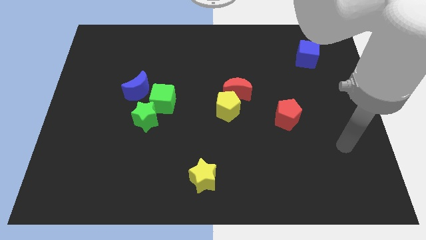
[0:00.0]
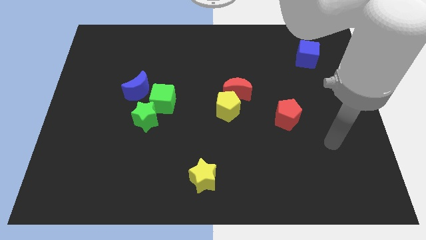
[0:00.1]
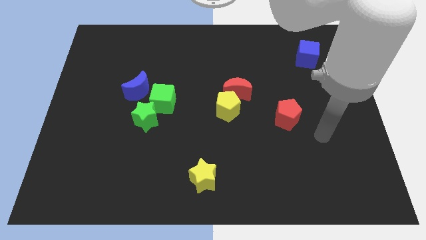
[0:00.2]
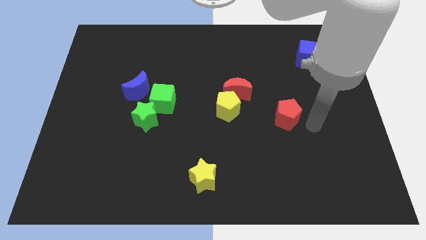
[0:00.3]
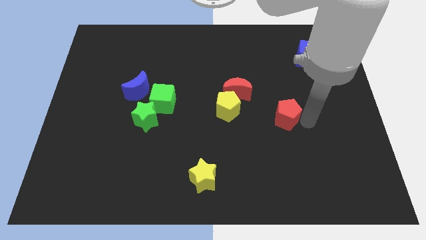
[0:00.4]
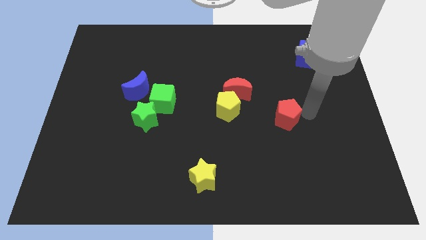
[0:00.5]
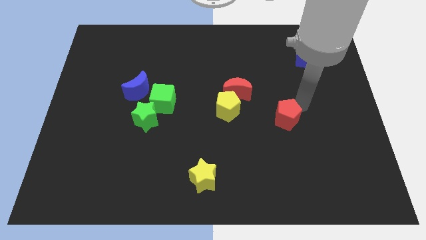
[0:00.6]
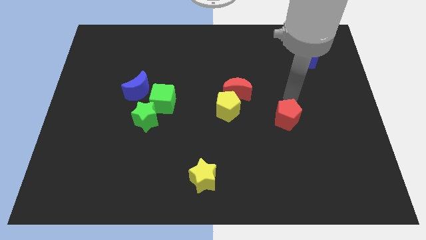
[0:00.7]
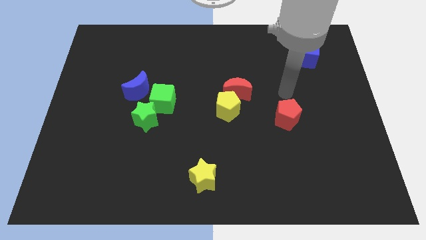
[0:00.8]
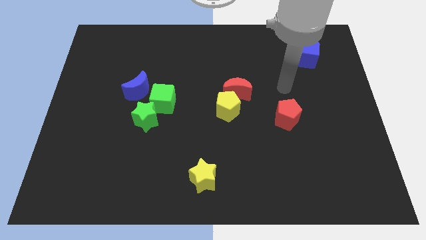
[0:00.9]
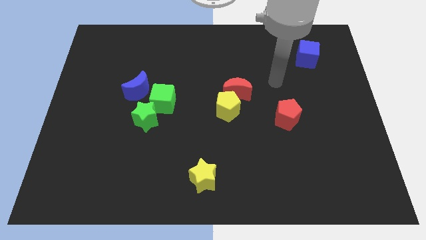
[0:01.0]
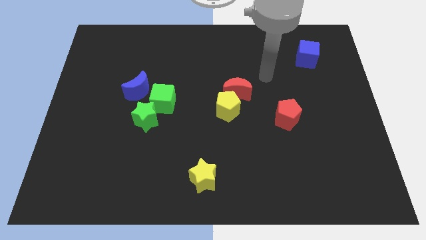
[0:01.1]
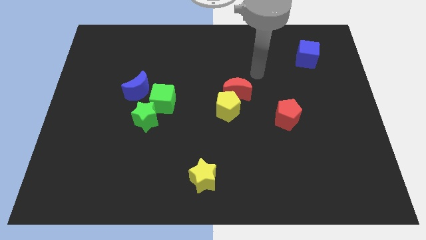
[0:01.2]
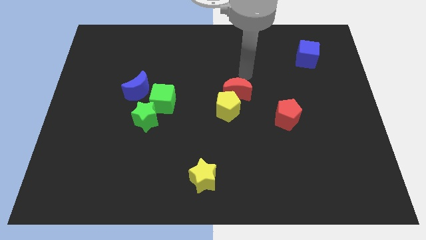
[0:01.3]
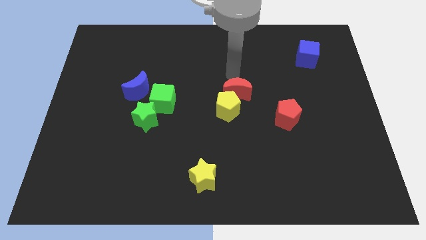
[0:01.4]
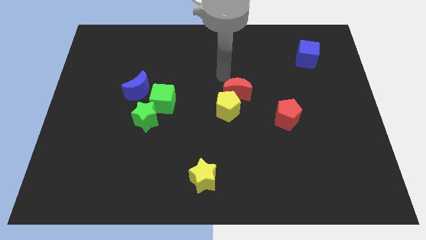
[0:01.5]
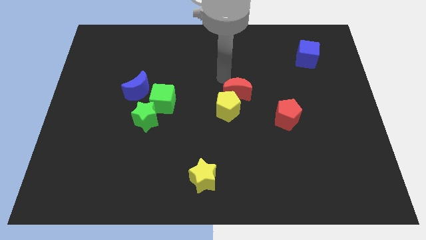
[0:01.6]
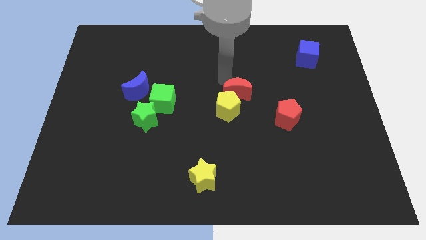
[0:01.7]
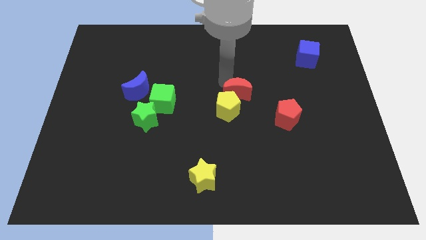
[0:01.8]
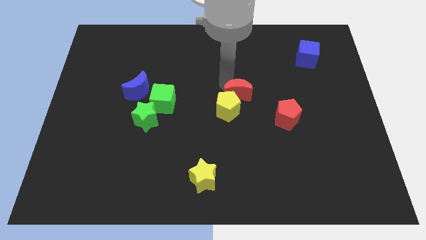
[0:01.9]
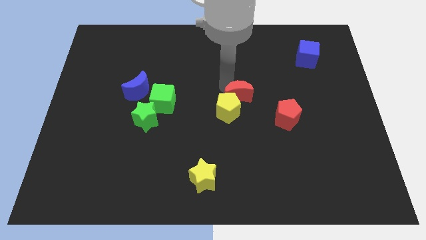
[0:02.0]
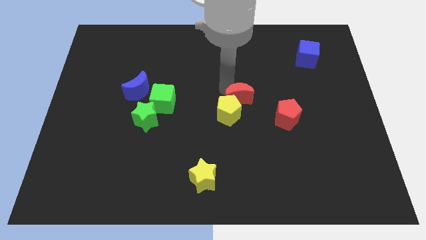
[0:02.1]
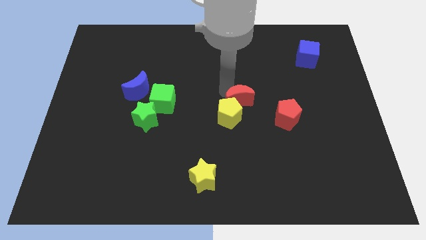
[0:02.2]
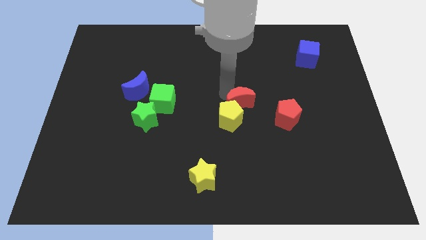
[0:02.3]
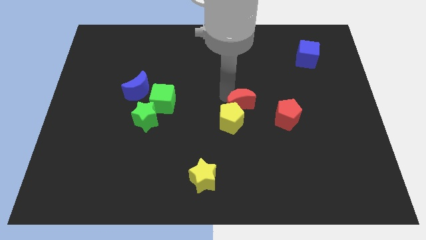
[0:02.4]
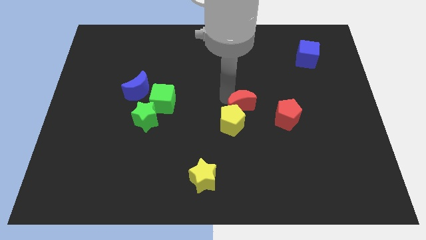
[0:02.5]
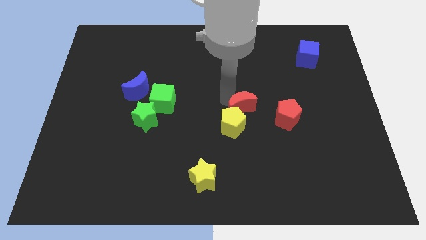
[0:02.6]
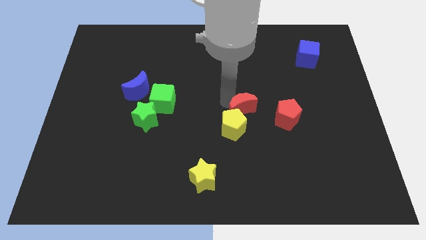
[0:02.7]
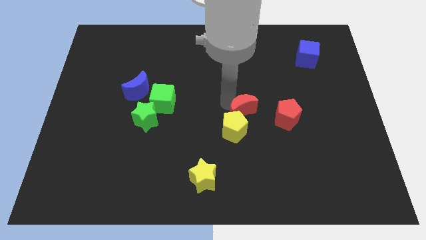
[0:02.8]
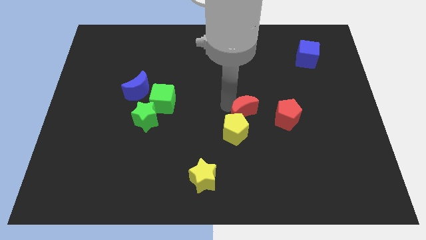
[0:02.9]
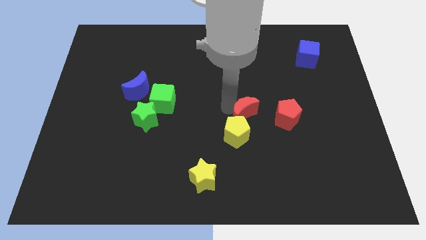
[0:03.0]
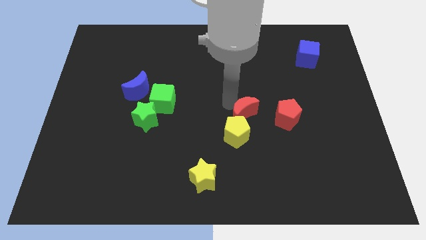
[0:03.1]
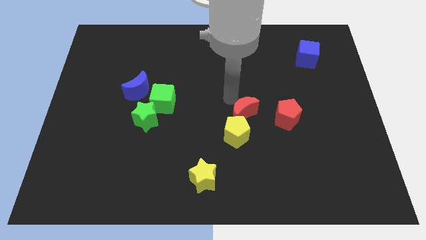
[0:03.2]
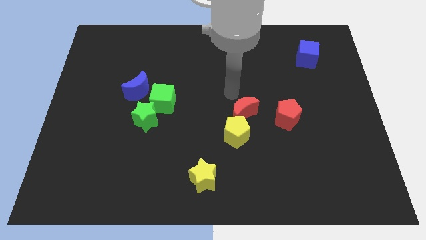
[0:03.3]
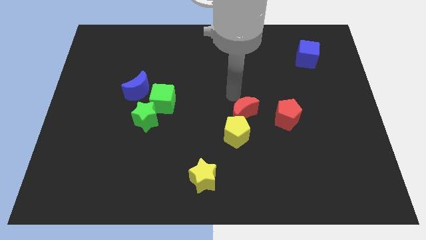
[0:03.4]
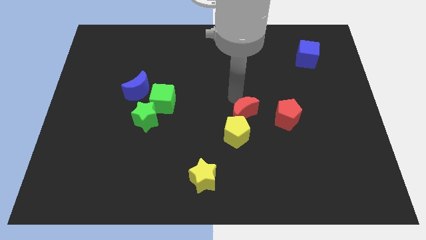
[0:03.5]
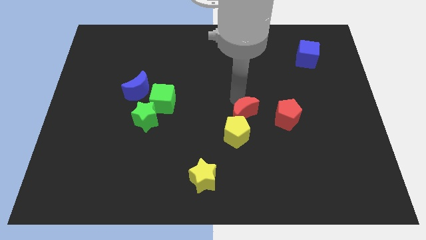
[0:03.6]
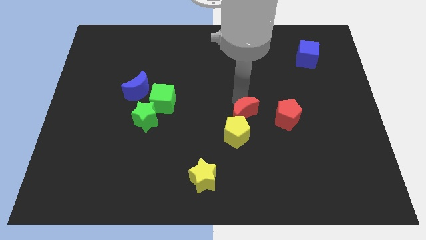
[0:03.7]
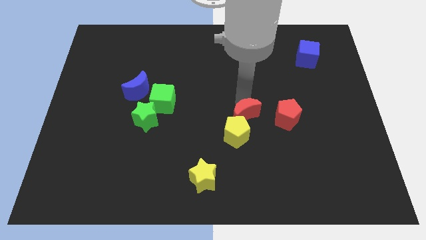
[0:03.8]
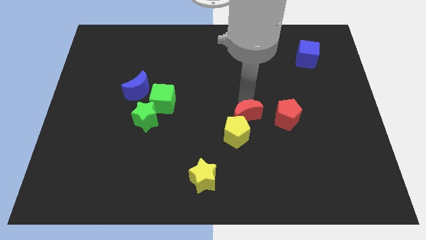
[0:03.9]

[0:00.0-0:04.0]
push the red moon a little bit downwards

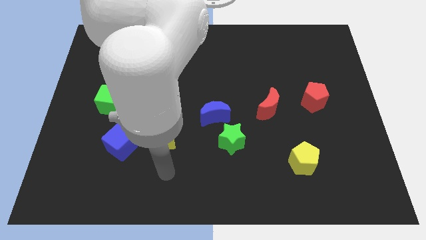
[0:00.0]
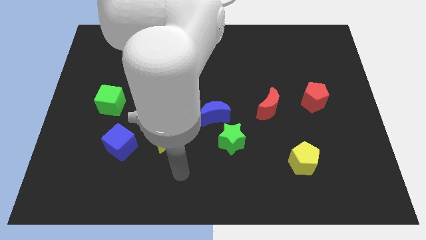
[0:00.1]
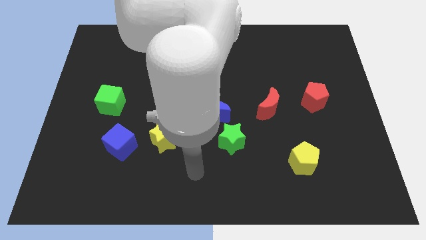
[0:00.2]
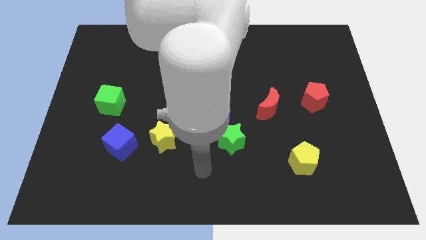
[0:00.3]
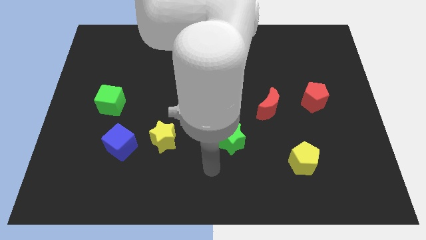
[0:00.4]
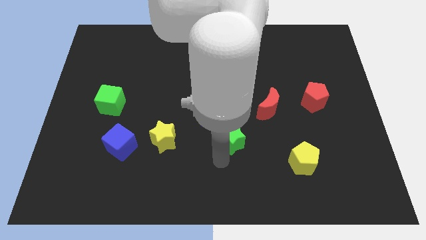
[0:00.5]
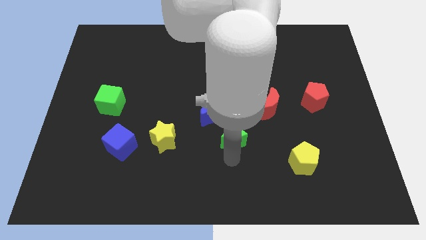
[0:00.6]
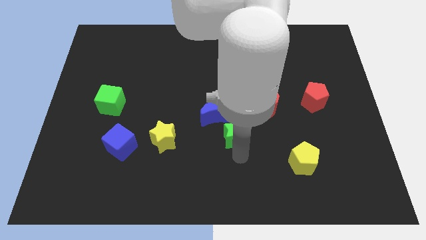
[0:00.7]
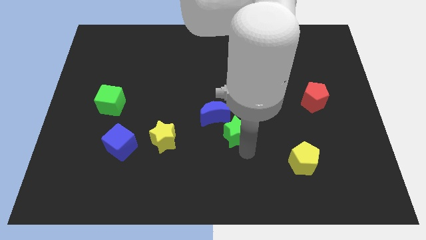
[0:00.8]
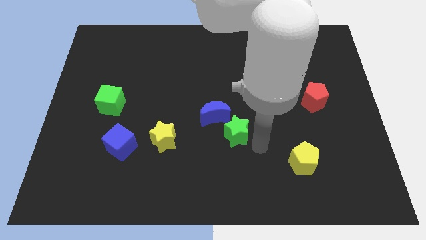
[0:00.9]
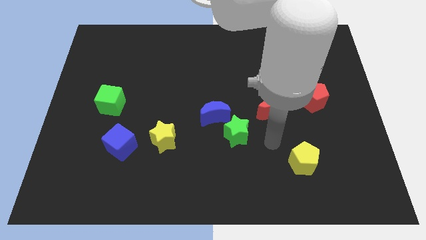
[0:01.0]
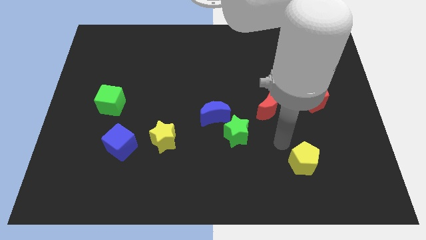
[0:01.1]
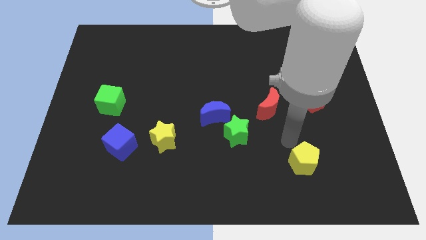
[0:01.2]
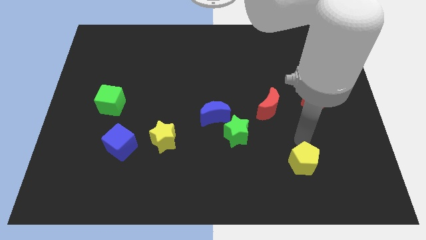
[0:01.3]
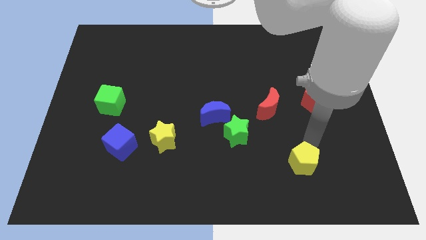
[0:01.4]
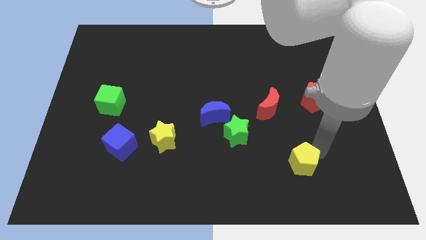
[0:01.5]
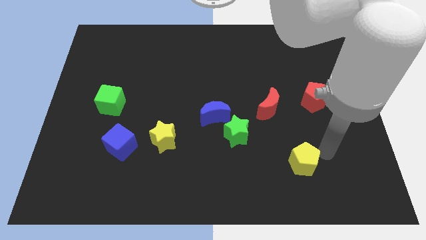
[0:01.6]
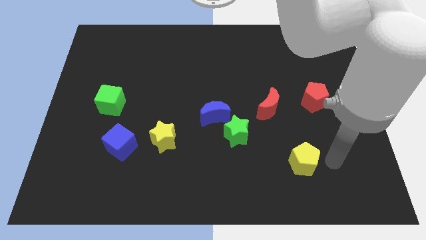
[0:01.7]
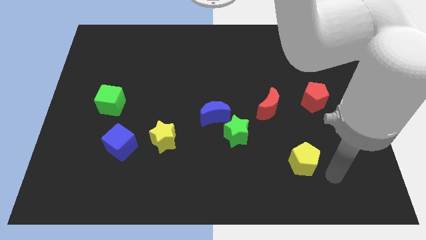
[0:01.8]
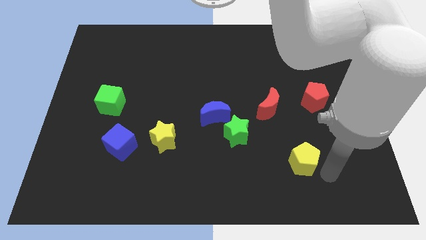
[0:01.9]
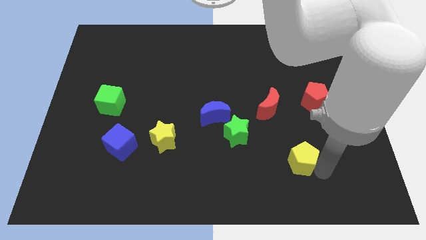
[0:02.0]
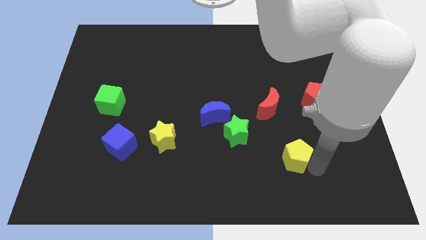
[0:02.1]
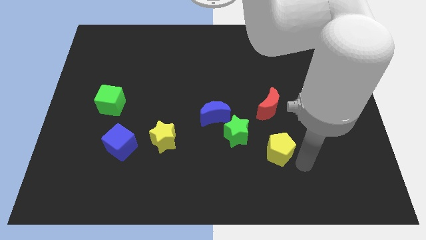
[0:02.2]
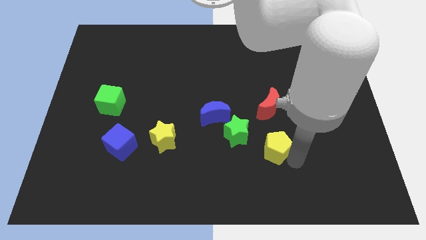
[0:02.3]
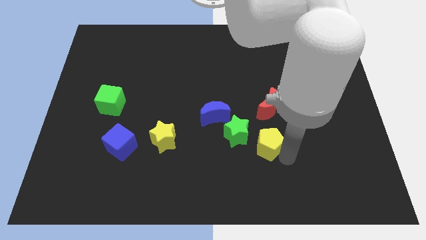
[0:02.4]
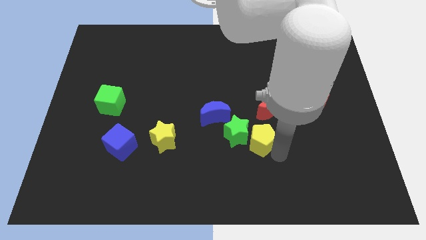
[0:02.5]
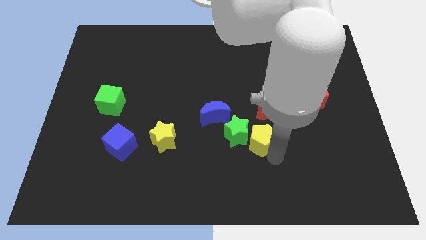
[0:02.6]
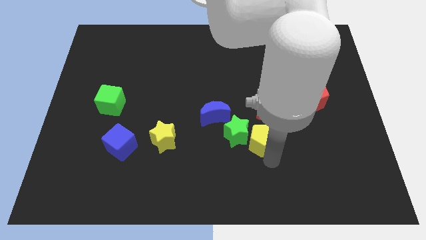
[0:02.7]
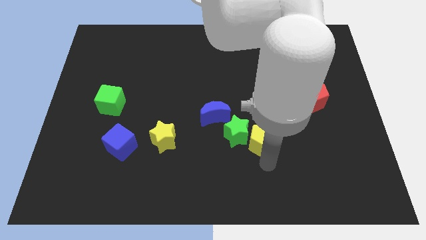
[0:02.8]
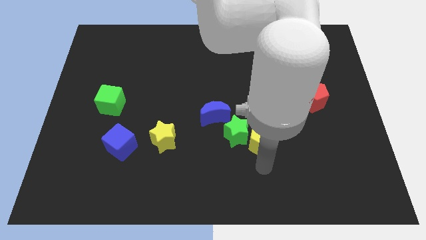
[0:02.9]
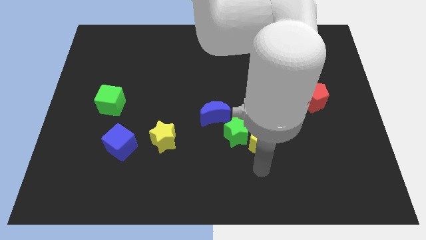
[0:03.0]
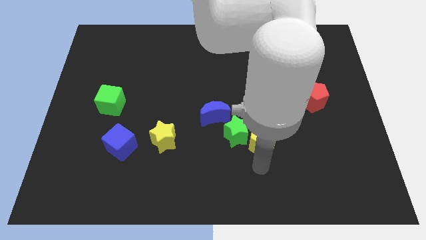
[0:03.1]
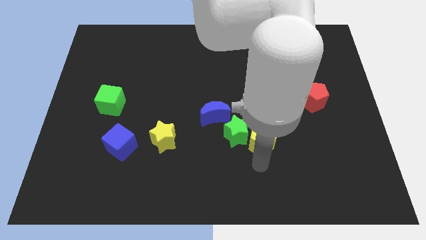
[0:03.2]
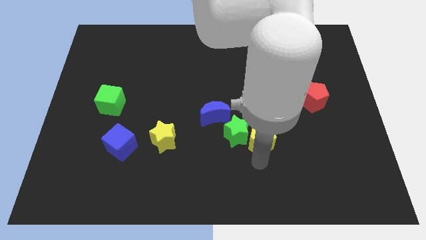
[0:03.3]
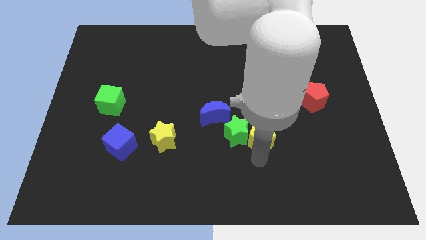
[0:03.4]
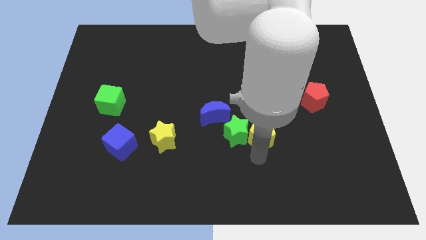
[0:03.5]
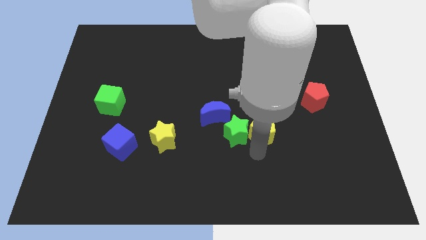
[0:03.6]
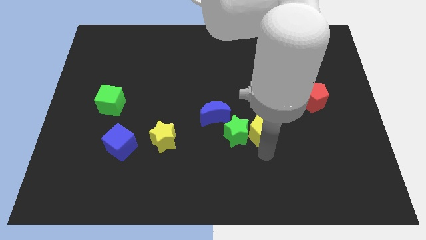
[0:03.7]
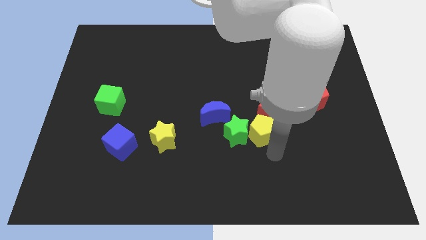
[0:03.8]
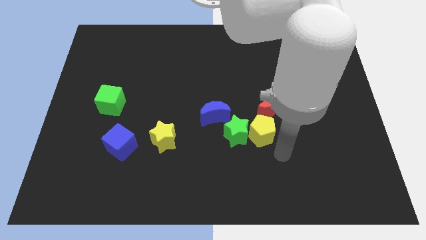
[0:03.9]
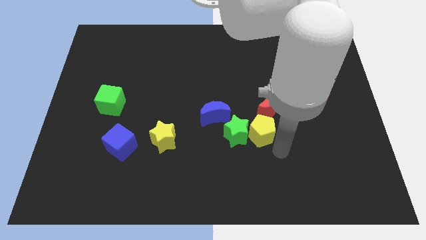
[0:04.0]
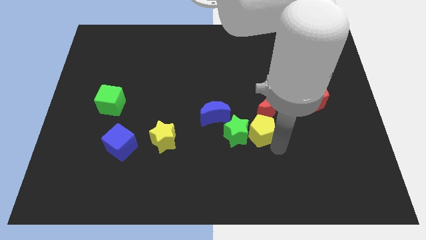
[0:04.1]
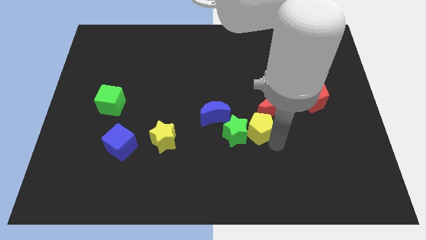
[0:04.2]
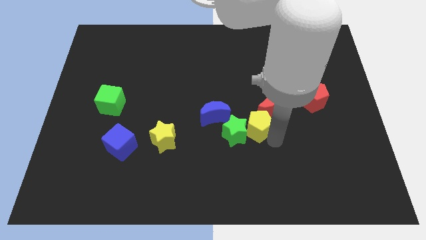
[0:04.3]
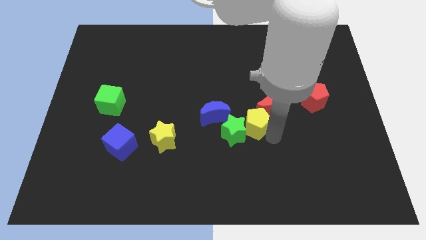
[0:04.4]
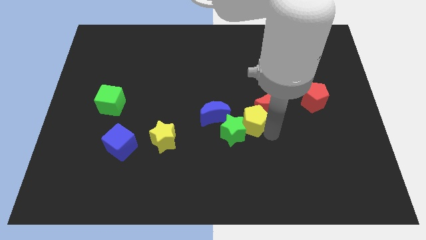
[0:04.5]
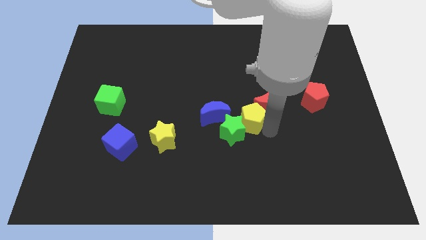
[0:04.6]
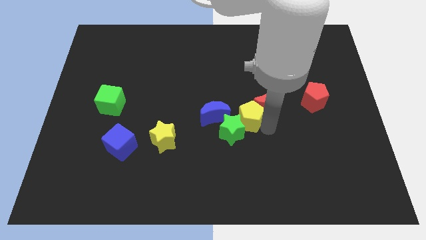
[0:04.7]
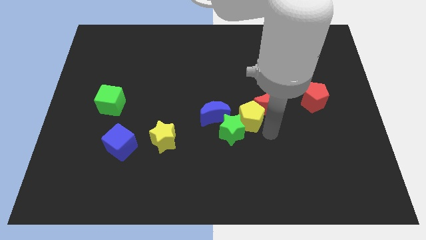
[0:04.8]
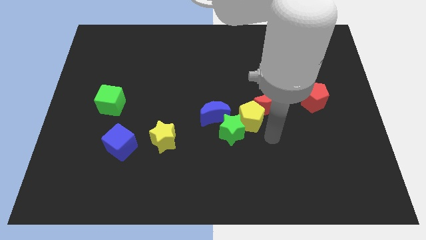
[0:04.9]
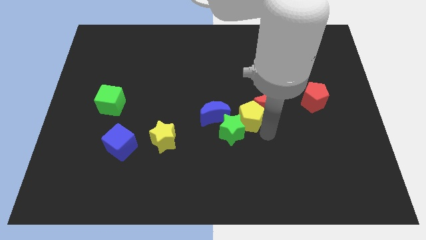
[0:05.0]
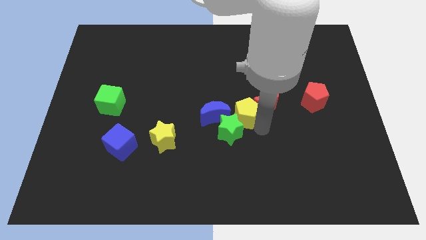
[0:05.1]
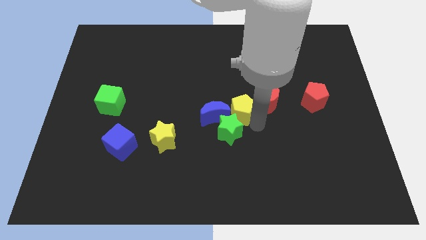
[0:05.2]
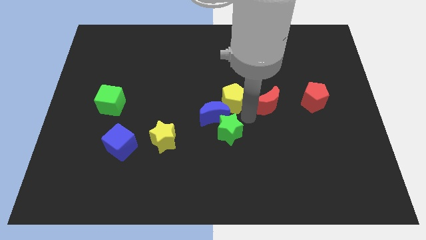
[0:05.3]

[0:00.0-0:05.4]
slide the yellow pentagon up and left
